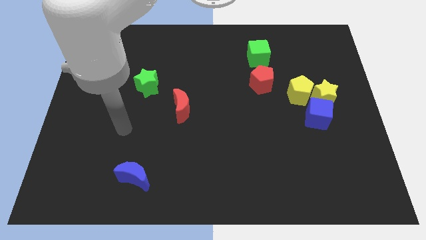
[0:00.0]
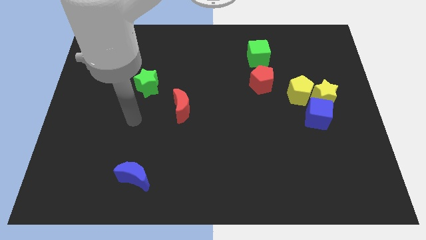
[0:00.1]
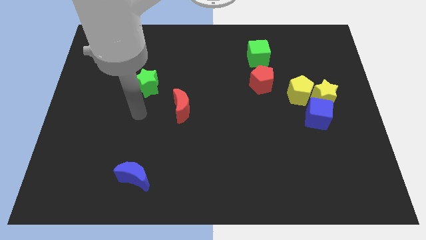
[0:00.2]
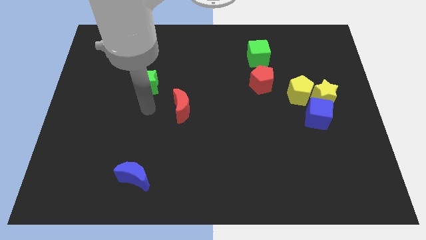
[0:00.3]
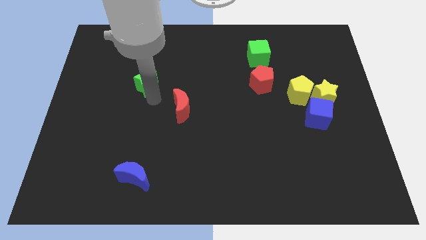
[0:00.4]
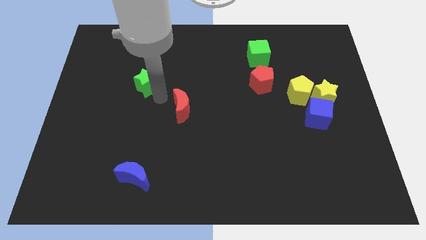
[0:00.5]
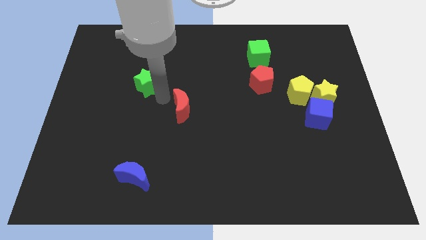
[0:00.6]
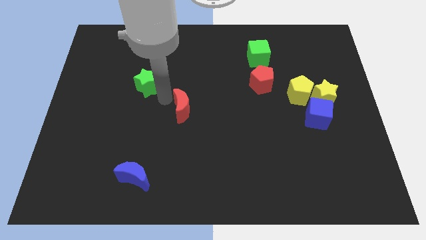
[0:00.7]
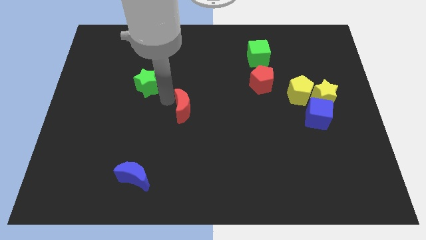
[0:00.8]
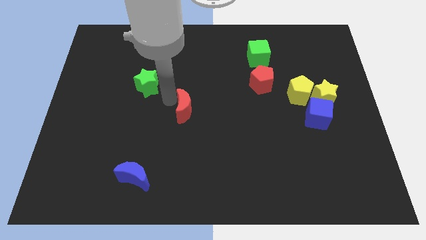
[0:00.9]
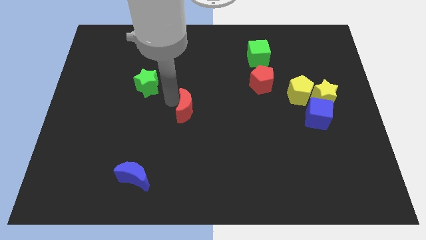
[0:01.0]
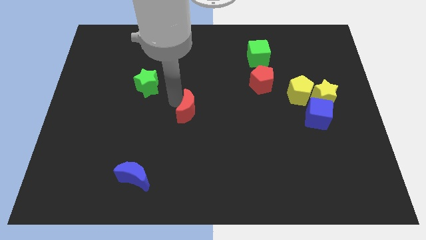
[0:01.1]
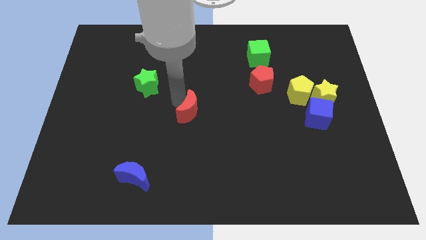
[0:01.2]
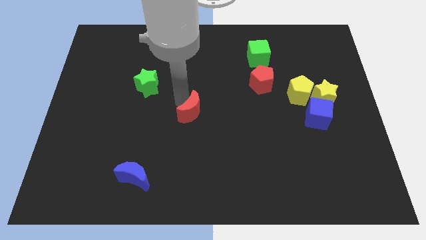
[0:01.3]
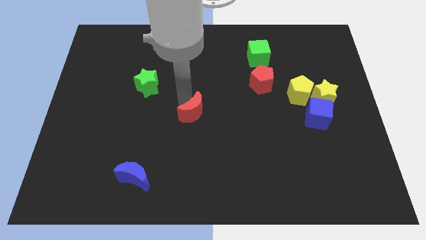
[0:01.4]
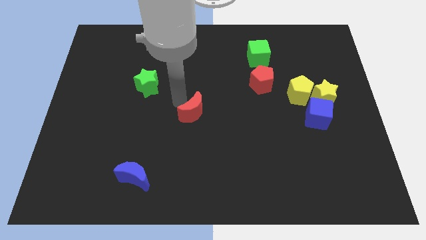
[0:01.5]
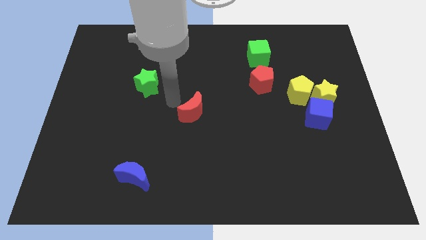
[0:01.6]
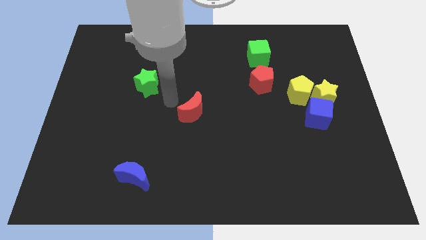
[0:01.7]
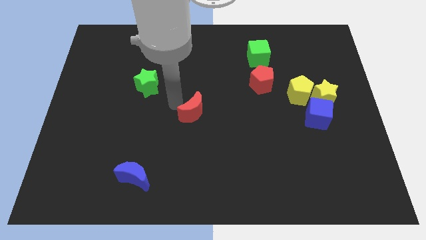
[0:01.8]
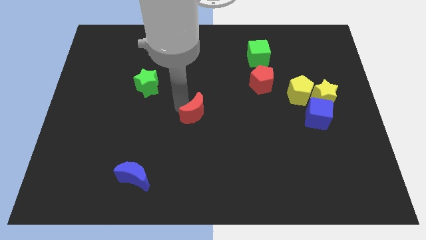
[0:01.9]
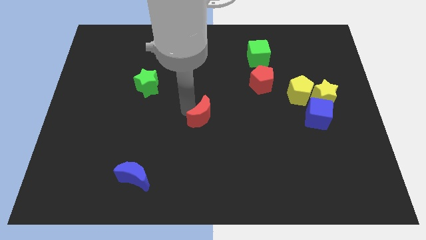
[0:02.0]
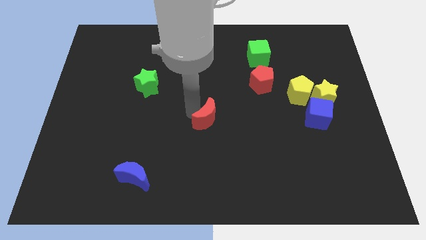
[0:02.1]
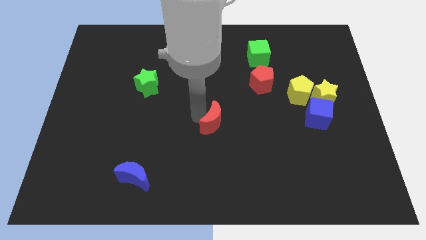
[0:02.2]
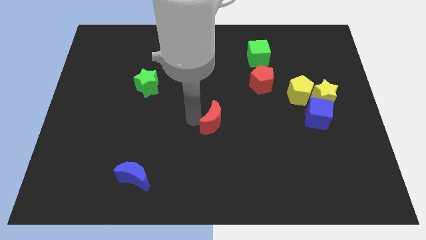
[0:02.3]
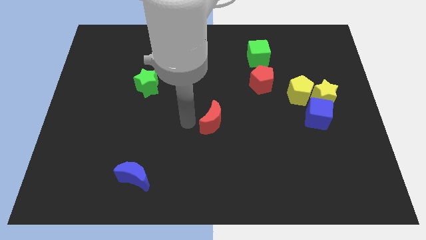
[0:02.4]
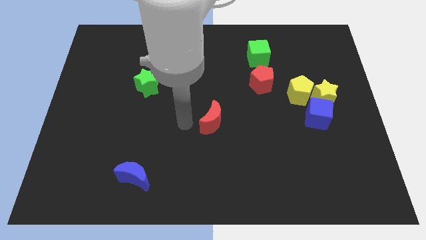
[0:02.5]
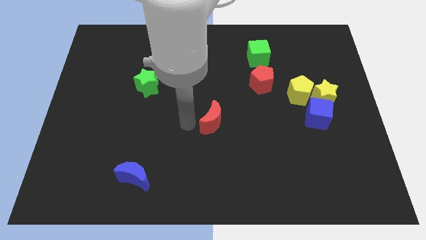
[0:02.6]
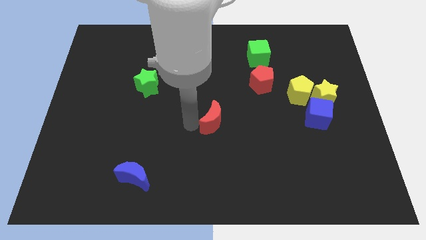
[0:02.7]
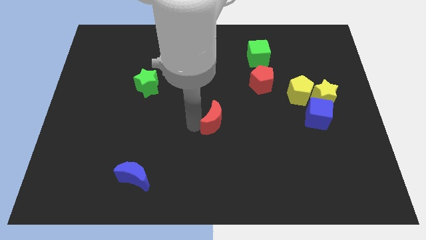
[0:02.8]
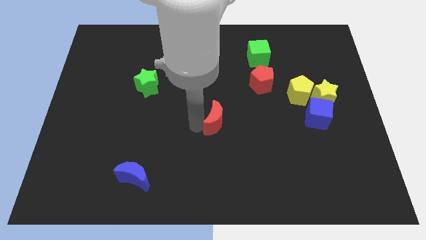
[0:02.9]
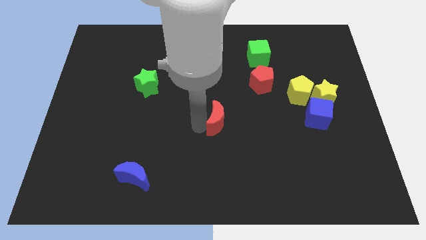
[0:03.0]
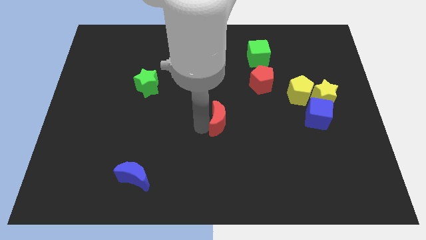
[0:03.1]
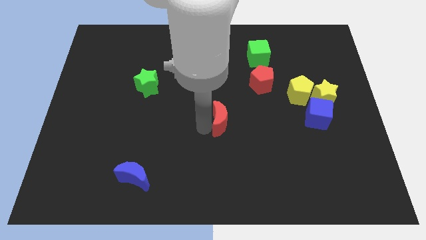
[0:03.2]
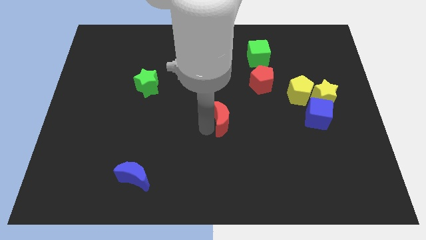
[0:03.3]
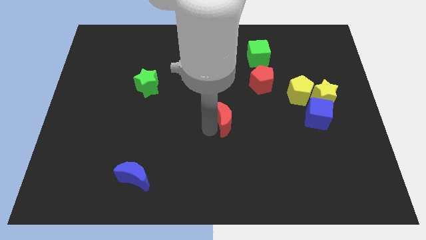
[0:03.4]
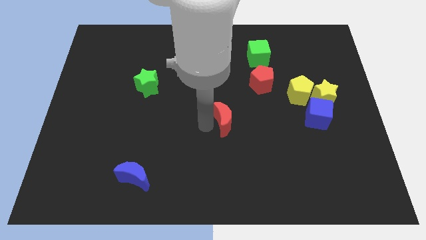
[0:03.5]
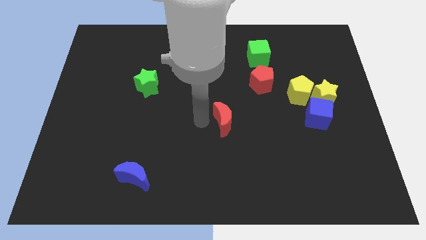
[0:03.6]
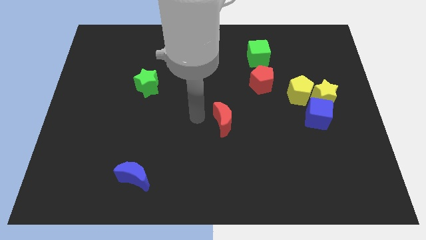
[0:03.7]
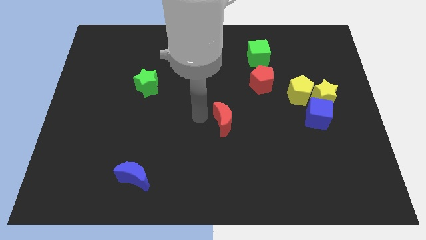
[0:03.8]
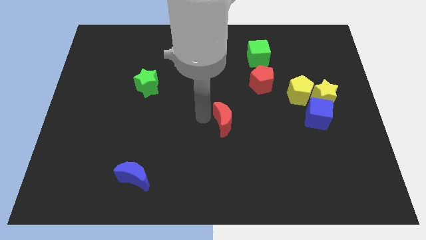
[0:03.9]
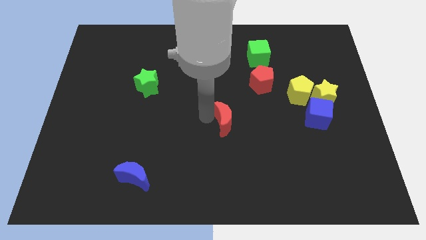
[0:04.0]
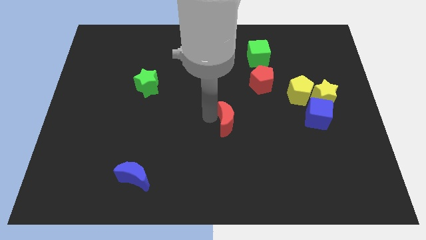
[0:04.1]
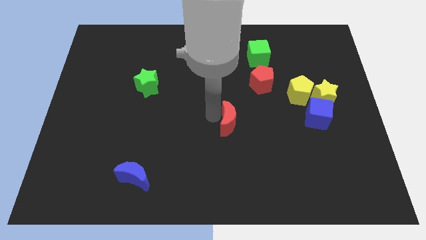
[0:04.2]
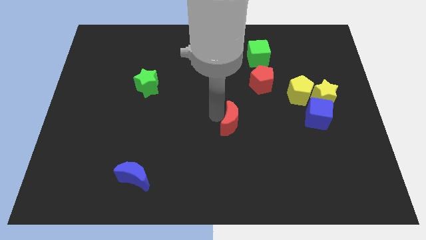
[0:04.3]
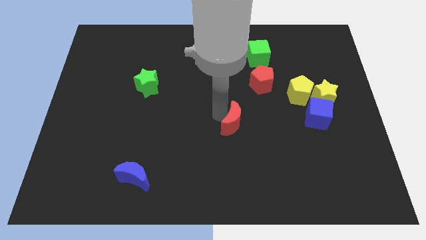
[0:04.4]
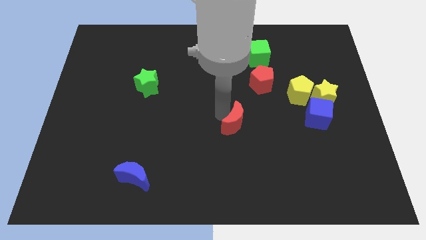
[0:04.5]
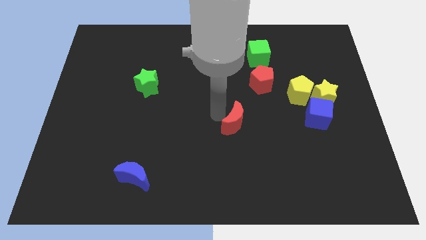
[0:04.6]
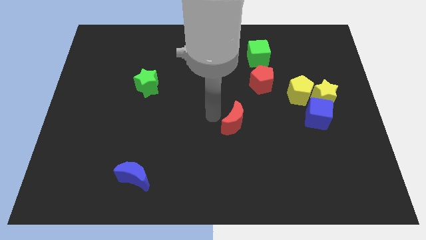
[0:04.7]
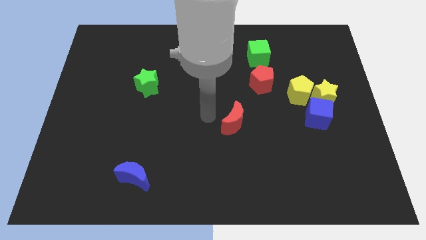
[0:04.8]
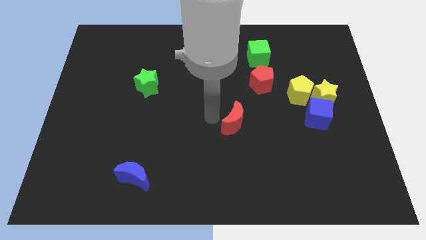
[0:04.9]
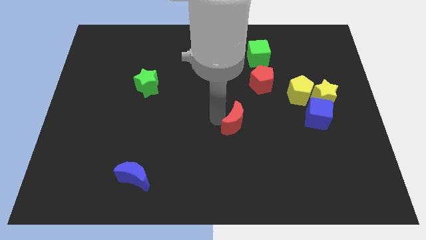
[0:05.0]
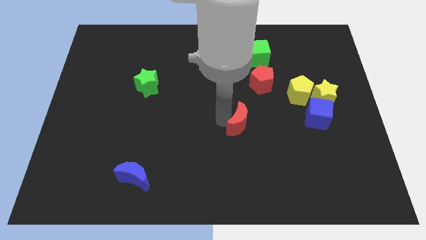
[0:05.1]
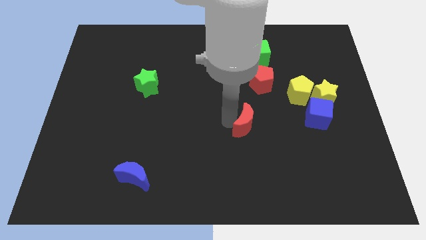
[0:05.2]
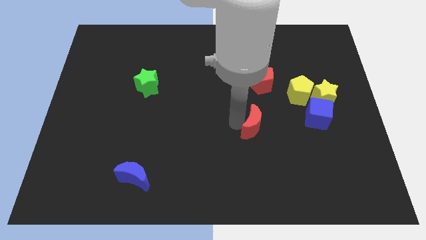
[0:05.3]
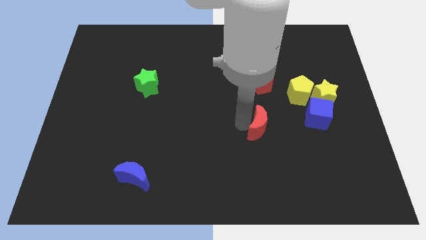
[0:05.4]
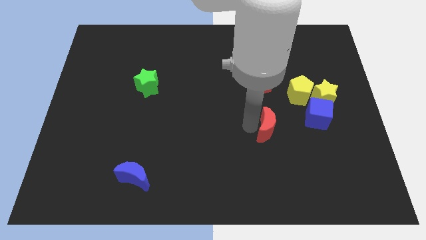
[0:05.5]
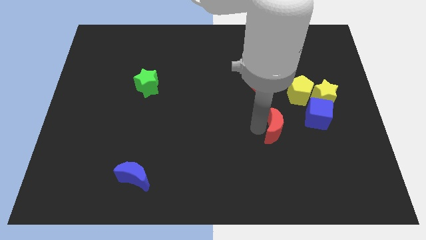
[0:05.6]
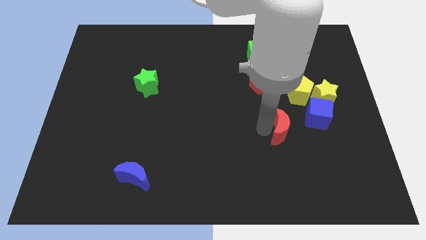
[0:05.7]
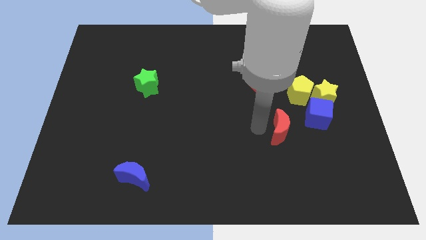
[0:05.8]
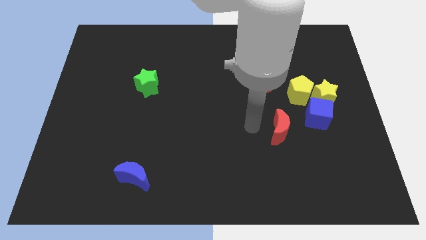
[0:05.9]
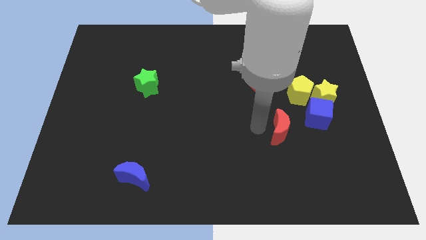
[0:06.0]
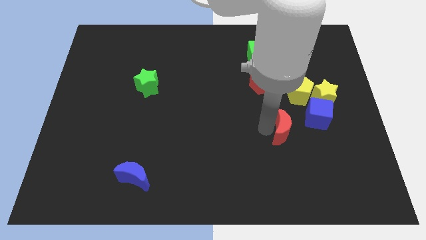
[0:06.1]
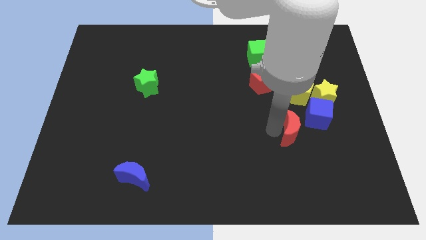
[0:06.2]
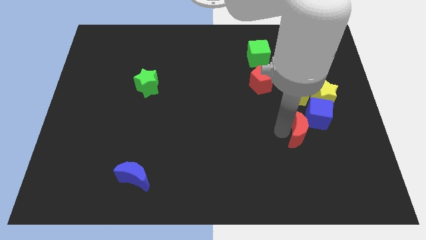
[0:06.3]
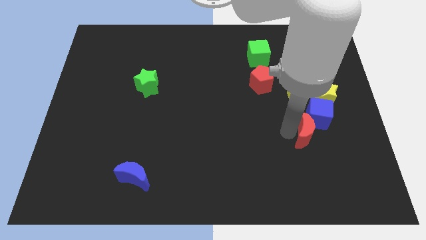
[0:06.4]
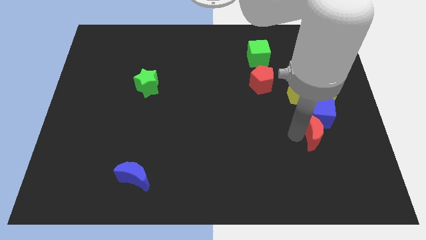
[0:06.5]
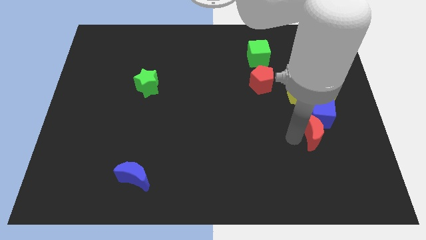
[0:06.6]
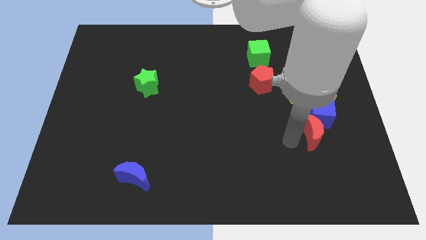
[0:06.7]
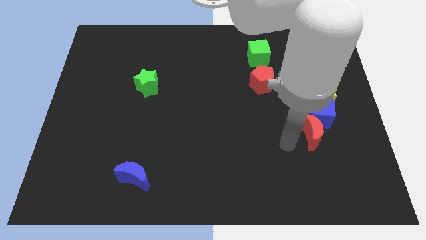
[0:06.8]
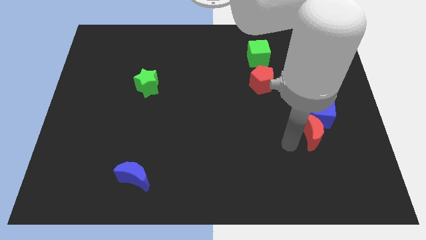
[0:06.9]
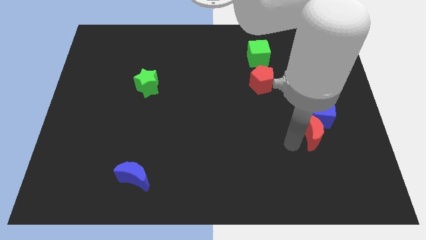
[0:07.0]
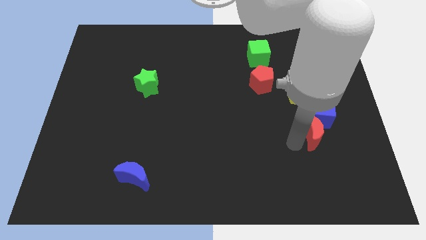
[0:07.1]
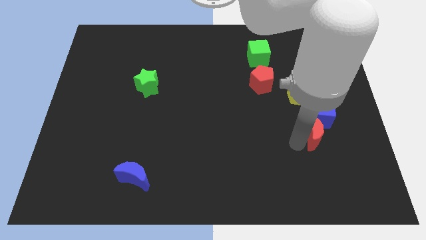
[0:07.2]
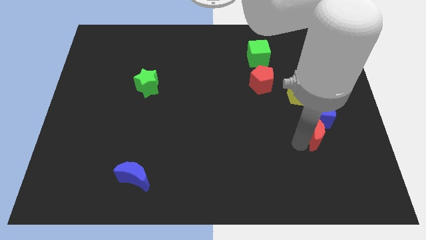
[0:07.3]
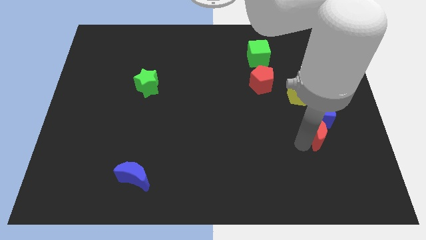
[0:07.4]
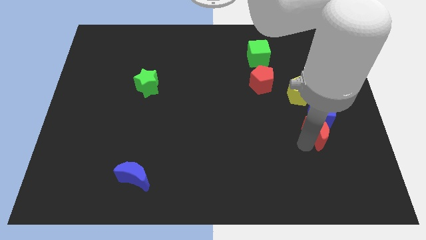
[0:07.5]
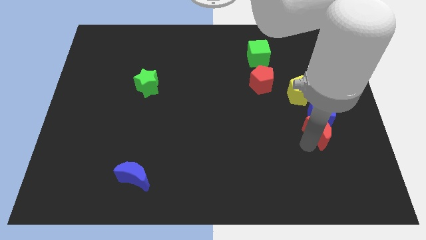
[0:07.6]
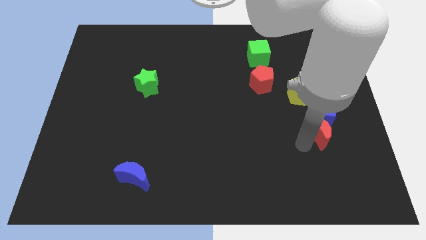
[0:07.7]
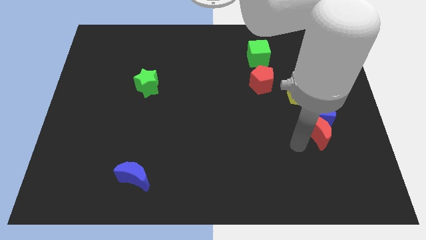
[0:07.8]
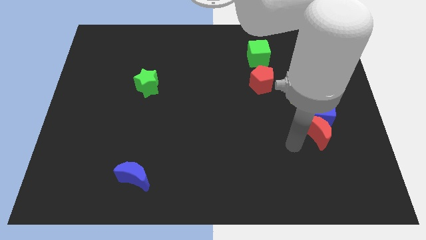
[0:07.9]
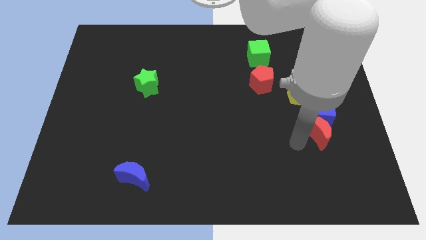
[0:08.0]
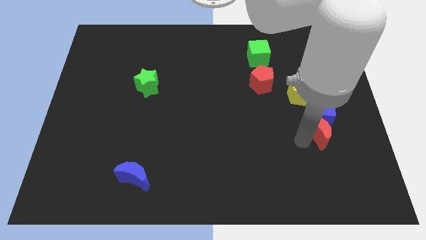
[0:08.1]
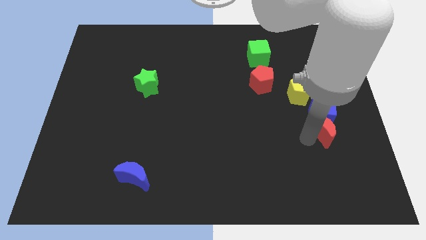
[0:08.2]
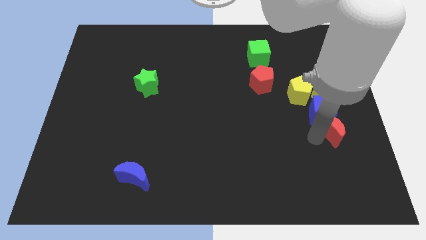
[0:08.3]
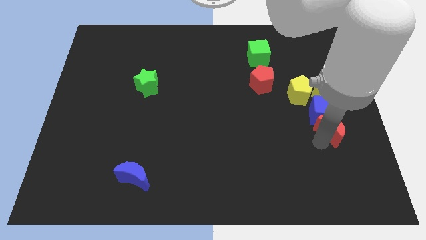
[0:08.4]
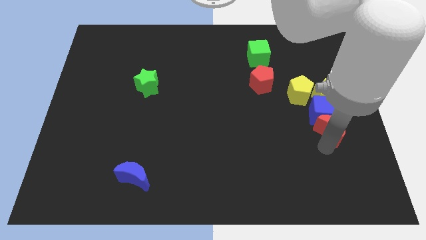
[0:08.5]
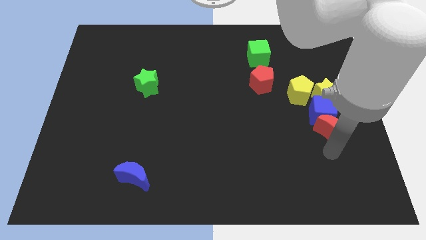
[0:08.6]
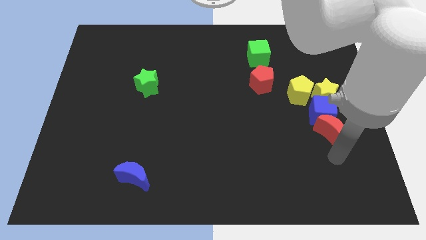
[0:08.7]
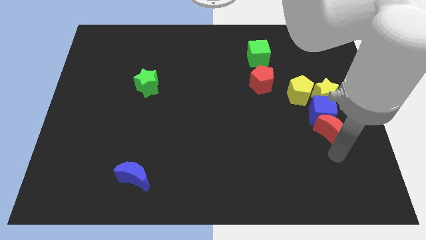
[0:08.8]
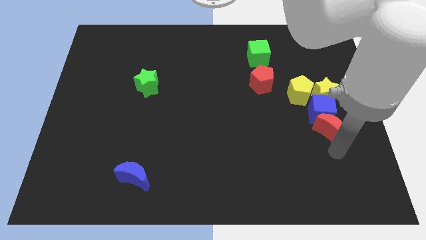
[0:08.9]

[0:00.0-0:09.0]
slide the red moon diagonally down and to the right of the yellow pentagon
